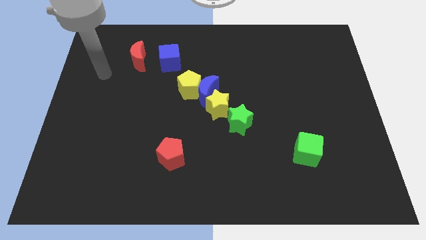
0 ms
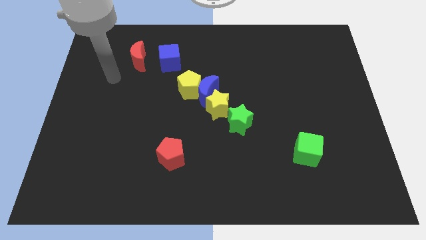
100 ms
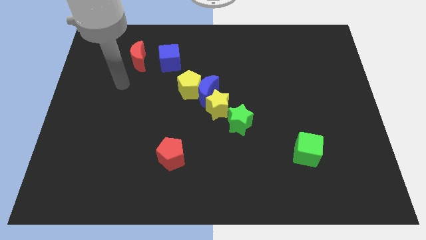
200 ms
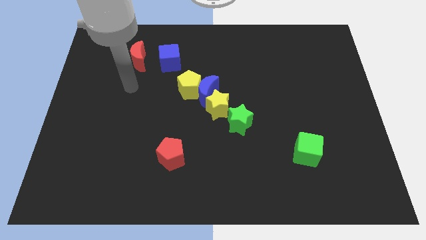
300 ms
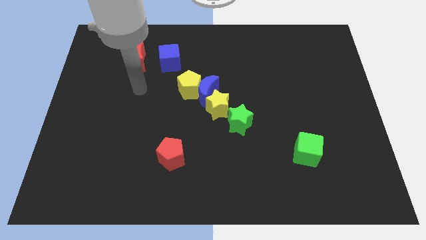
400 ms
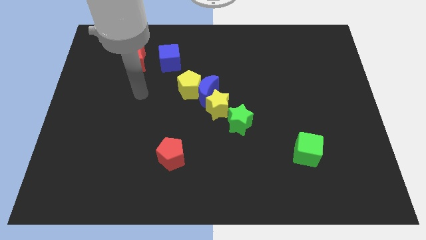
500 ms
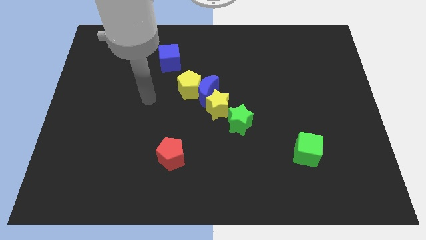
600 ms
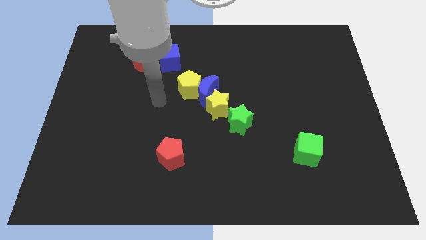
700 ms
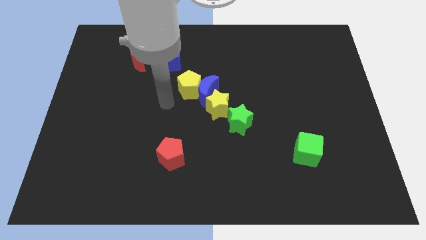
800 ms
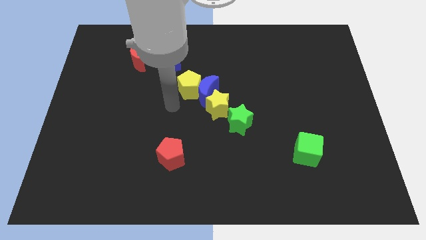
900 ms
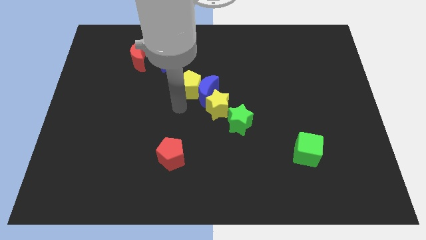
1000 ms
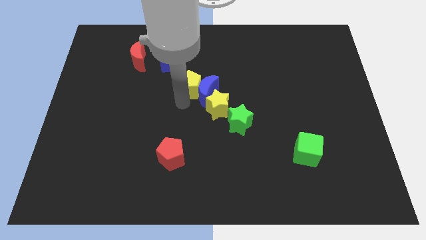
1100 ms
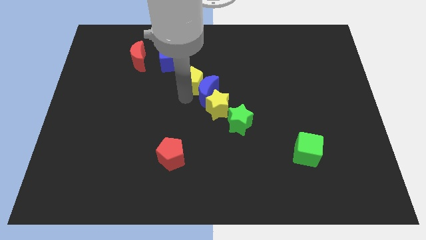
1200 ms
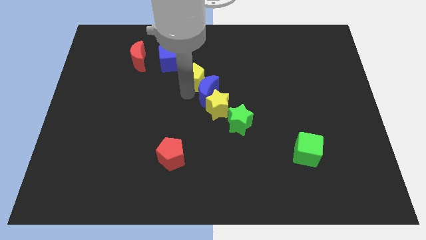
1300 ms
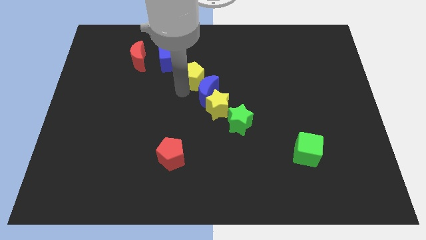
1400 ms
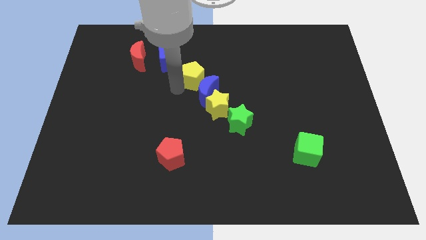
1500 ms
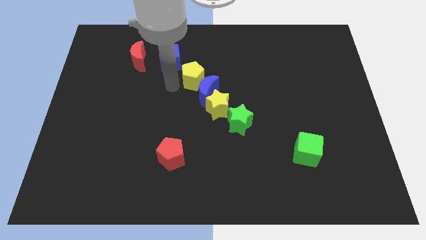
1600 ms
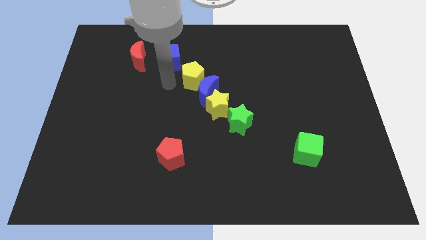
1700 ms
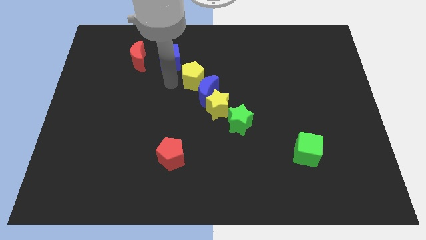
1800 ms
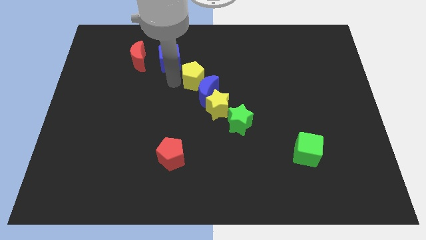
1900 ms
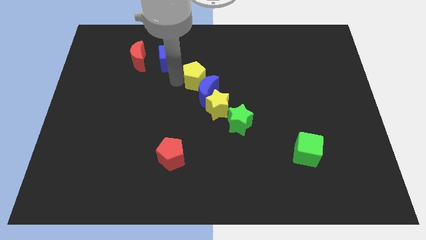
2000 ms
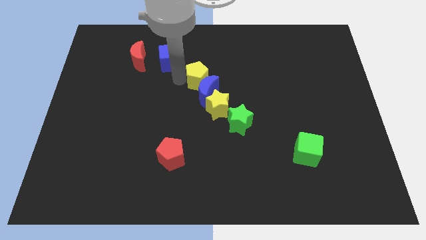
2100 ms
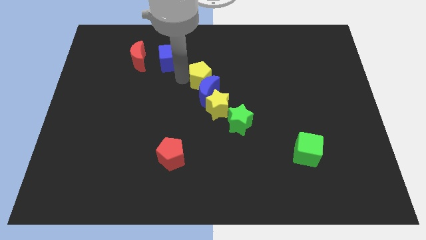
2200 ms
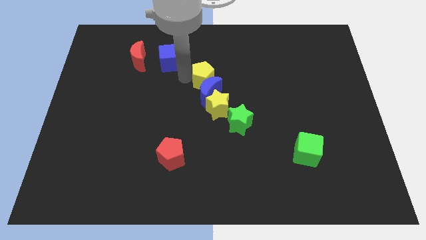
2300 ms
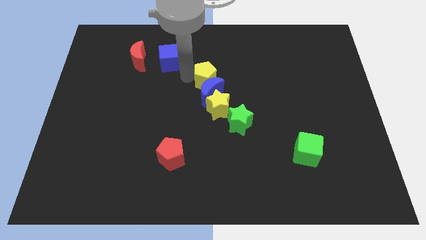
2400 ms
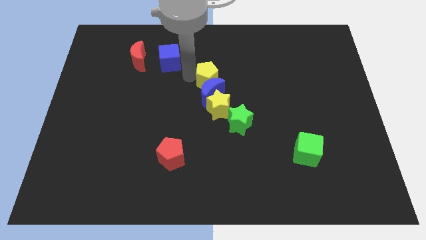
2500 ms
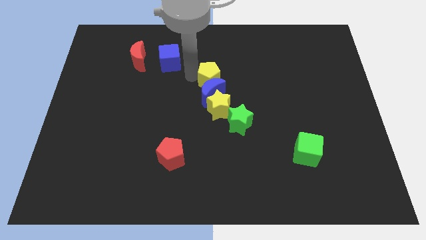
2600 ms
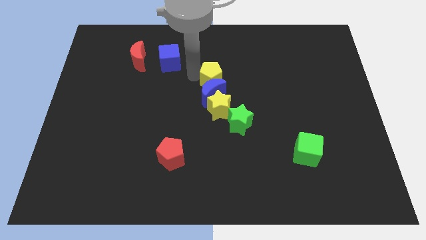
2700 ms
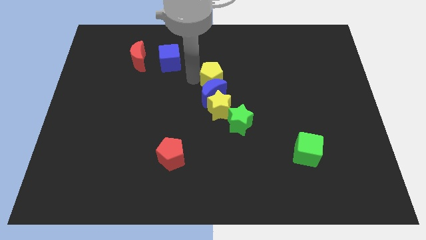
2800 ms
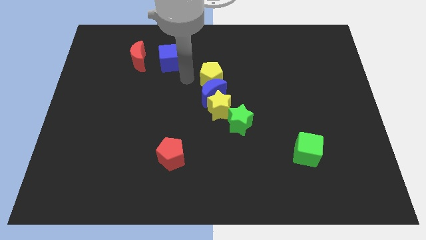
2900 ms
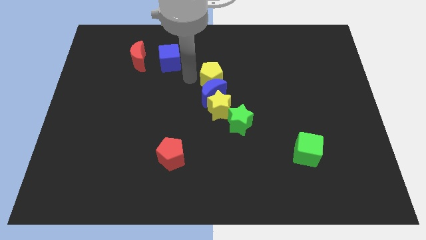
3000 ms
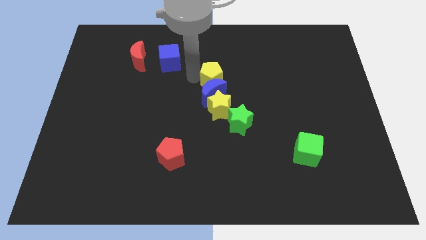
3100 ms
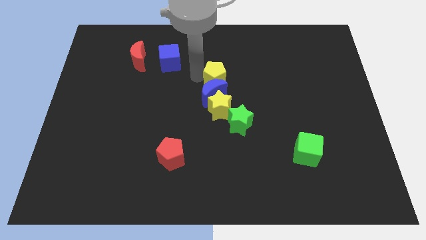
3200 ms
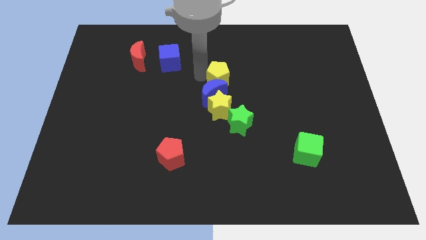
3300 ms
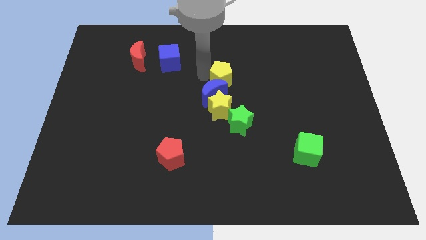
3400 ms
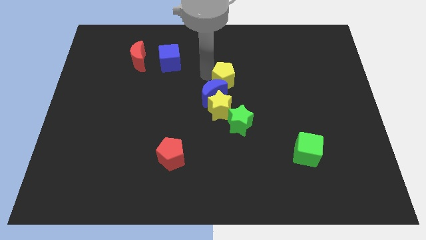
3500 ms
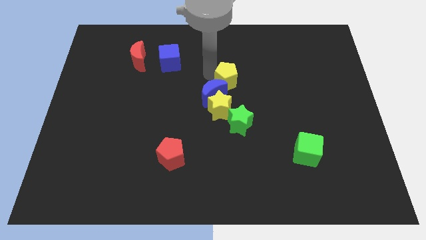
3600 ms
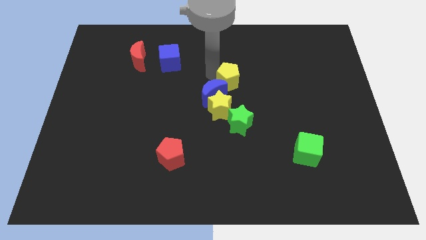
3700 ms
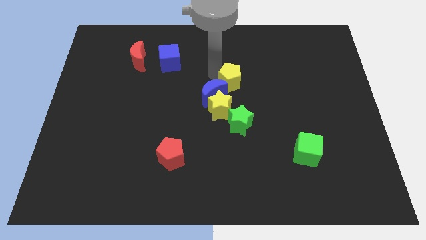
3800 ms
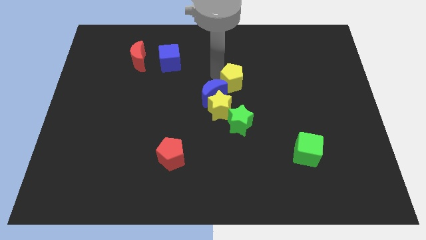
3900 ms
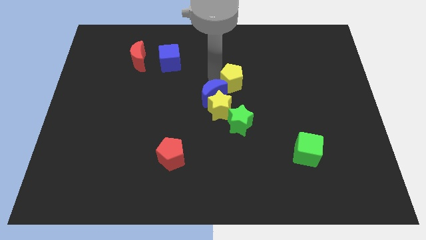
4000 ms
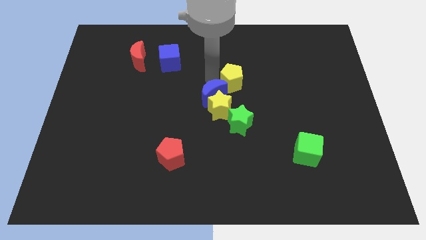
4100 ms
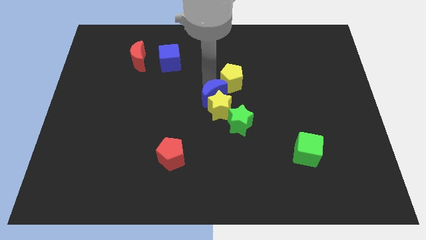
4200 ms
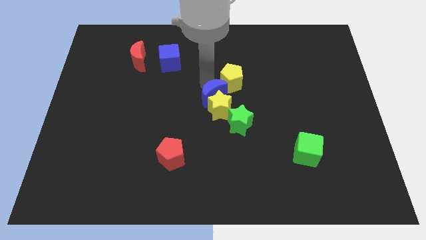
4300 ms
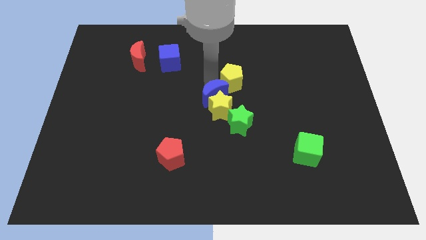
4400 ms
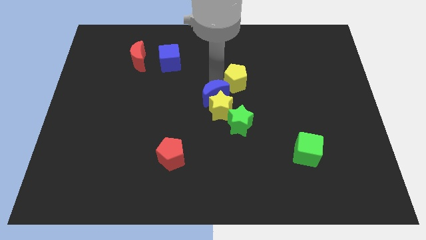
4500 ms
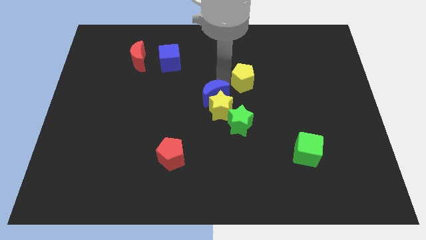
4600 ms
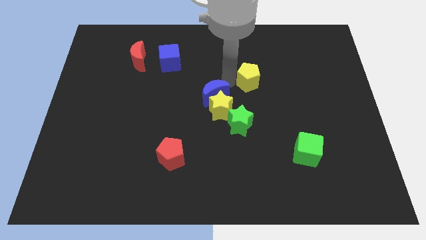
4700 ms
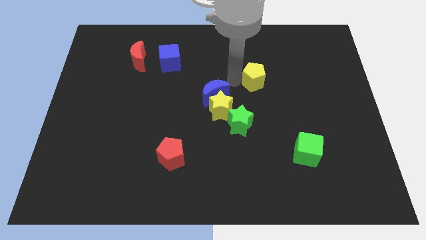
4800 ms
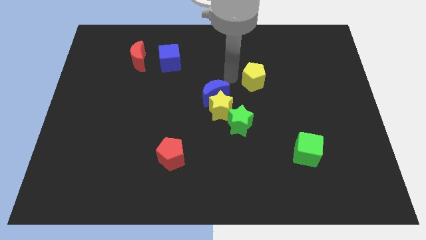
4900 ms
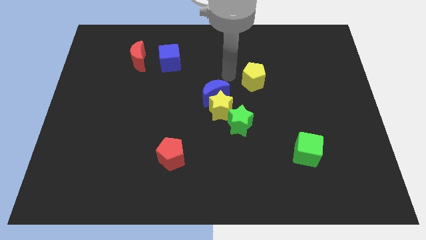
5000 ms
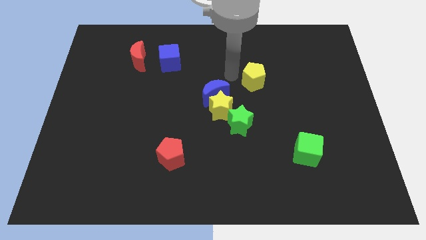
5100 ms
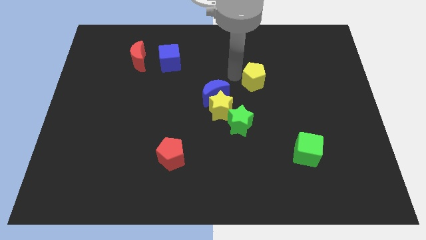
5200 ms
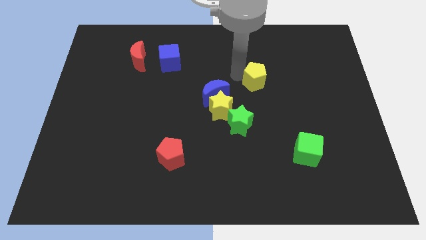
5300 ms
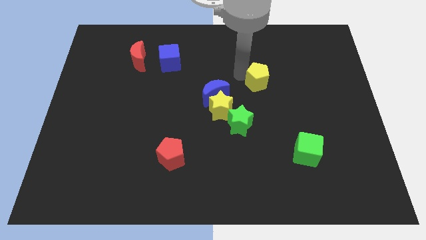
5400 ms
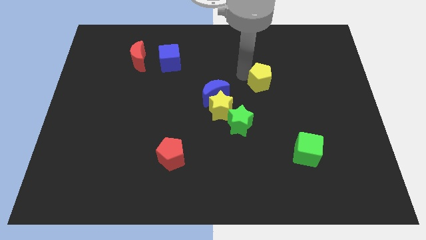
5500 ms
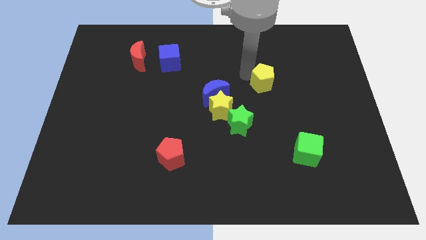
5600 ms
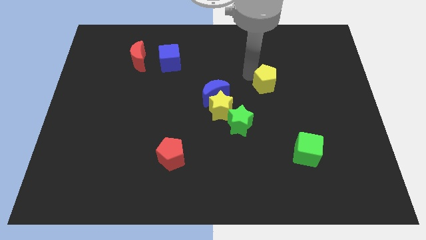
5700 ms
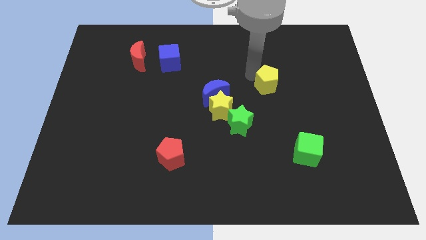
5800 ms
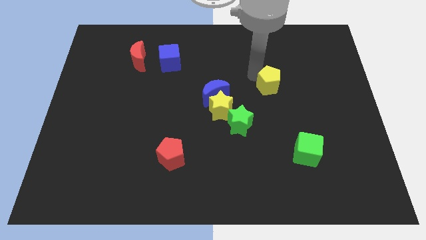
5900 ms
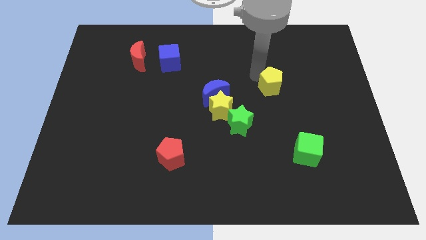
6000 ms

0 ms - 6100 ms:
slide the yellow pentagon right

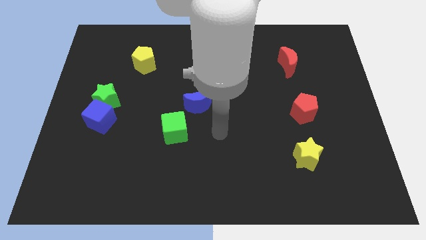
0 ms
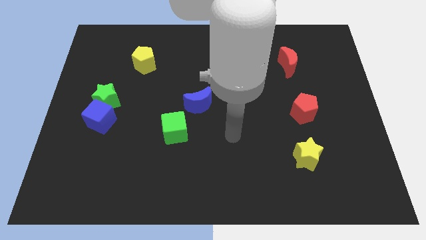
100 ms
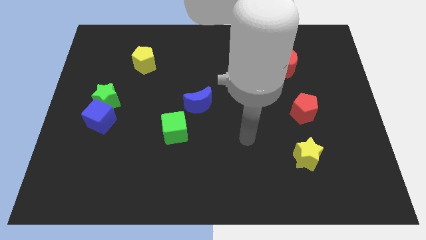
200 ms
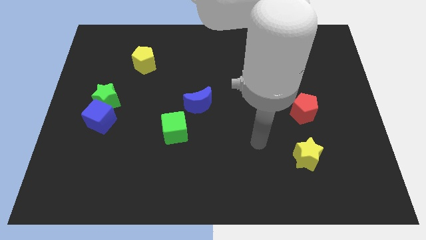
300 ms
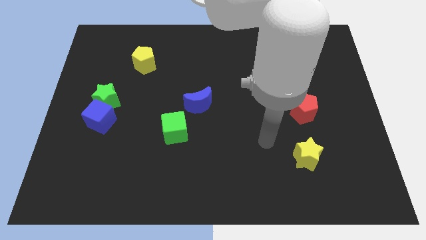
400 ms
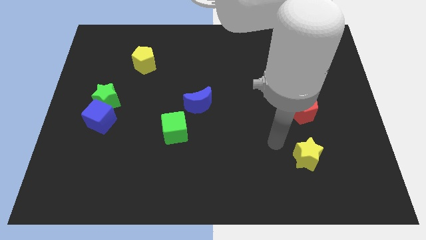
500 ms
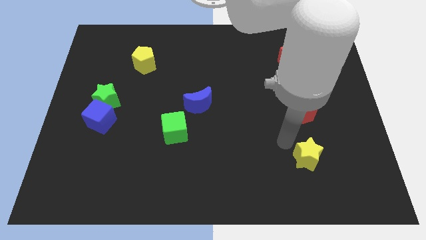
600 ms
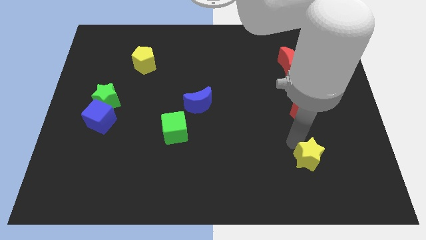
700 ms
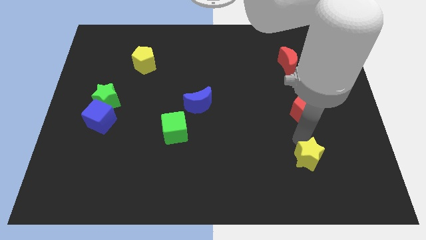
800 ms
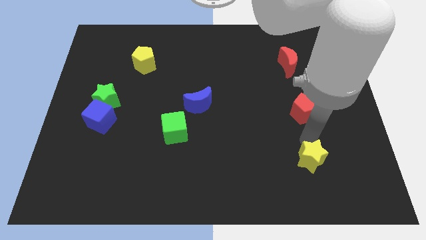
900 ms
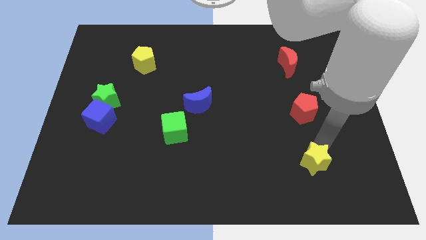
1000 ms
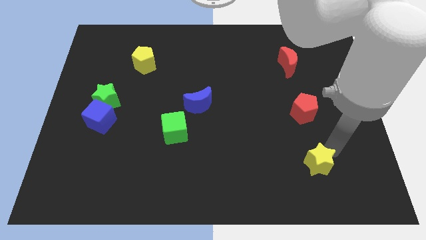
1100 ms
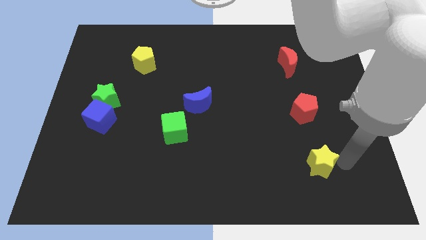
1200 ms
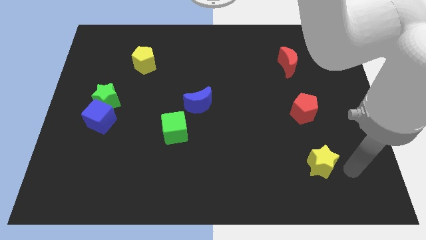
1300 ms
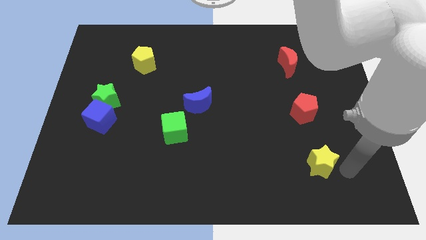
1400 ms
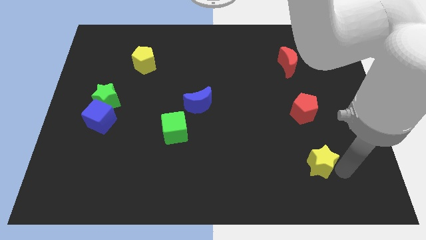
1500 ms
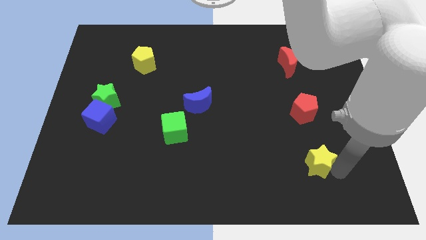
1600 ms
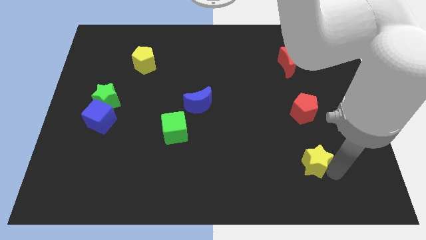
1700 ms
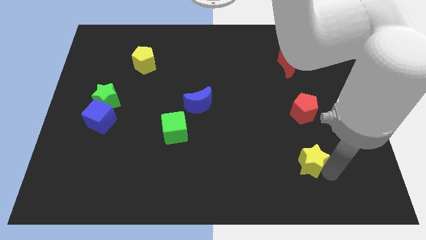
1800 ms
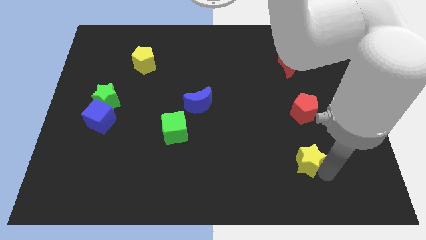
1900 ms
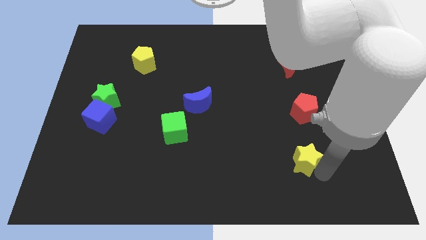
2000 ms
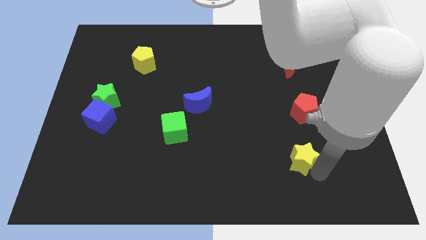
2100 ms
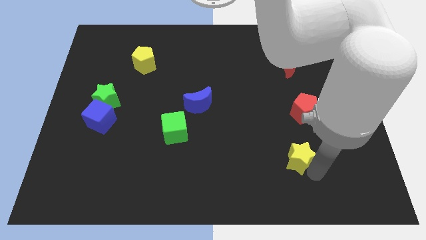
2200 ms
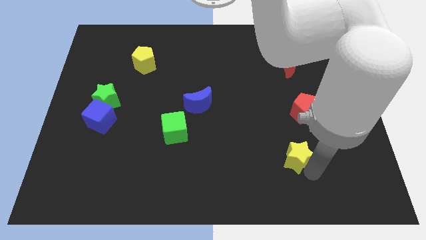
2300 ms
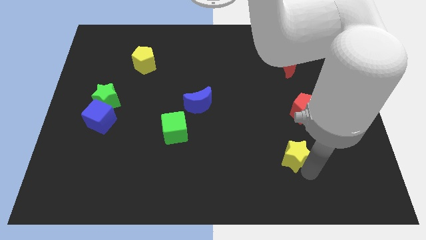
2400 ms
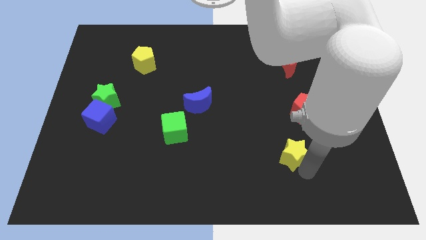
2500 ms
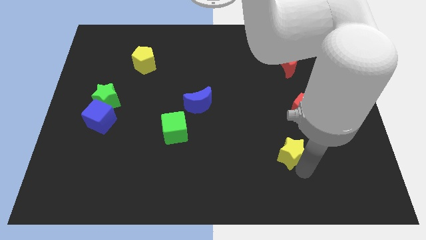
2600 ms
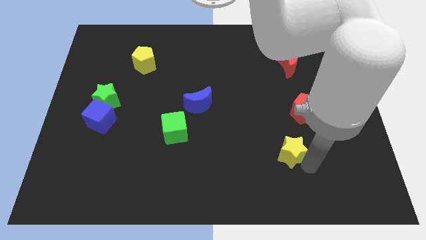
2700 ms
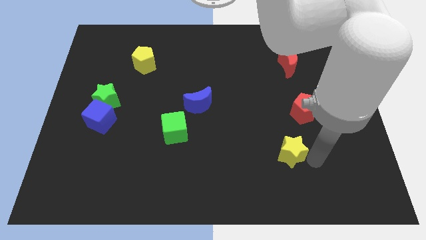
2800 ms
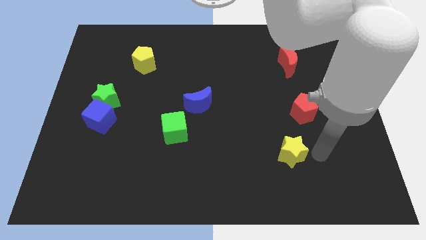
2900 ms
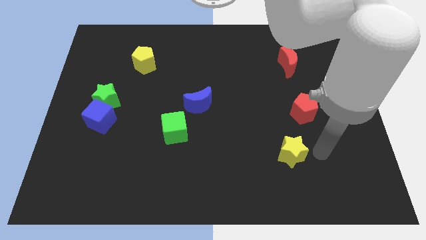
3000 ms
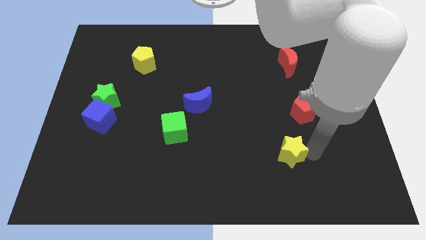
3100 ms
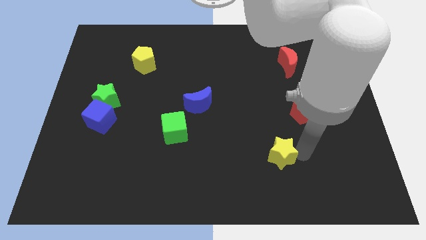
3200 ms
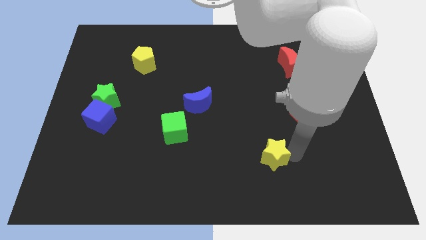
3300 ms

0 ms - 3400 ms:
slightly move the yellow star left
